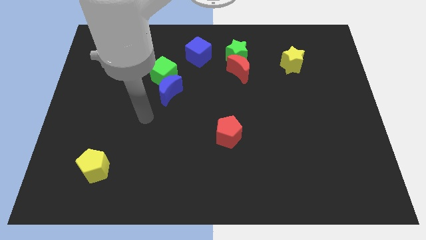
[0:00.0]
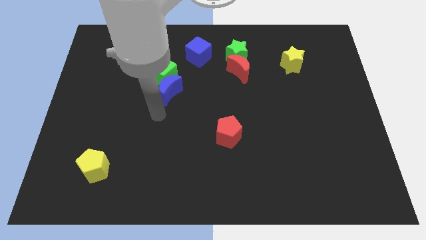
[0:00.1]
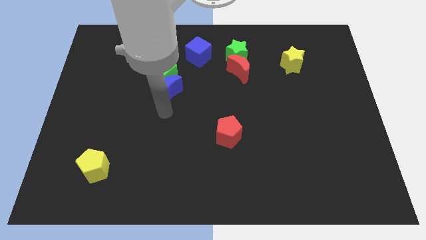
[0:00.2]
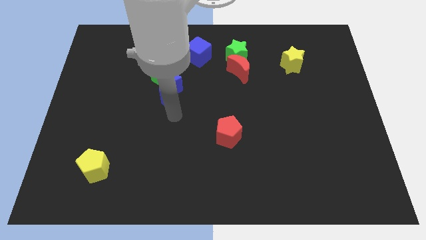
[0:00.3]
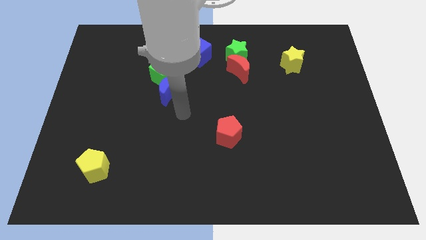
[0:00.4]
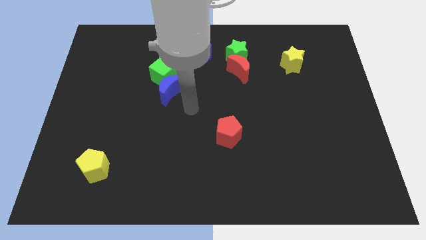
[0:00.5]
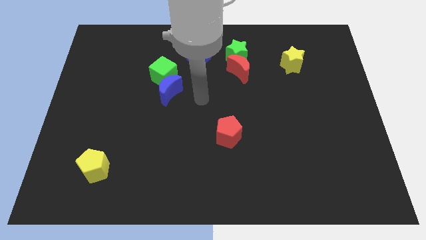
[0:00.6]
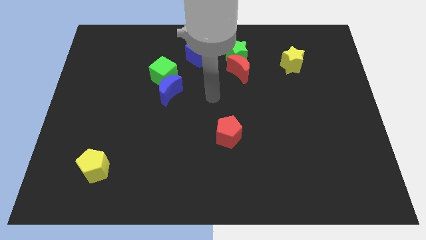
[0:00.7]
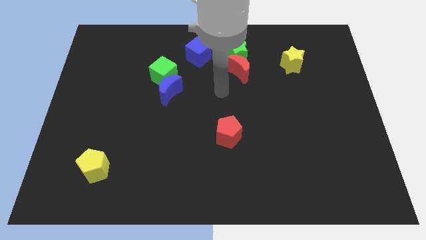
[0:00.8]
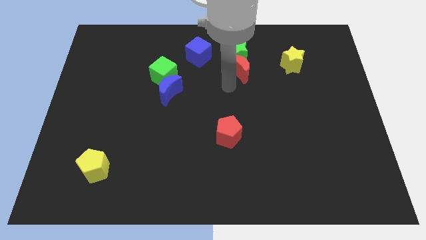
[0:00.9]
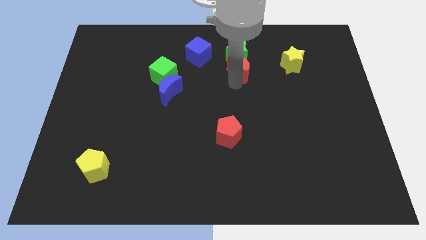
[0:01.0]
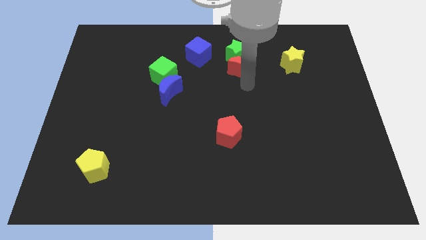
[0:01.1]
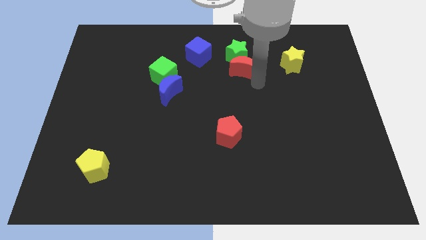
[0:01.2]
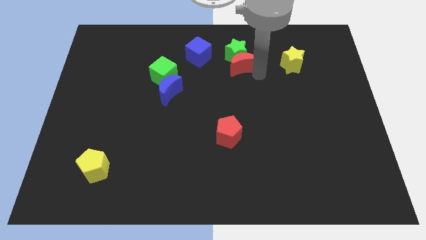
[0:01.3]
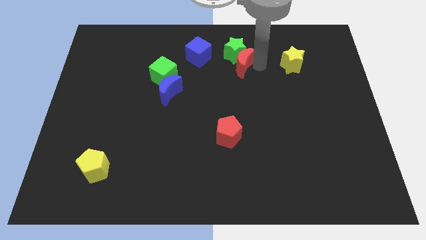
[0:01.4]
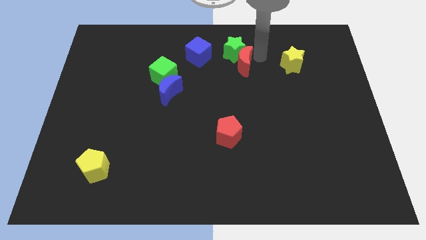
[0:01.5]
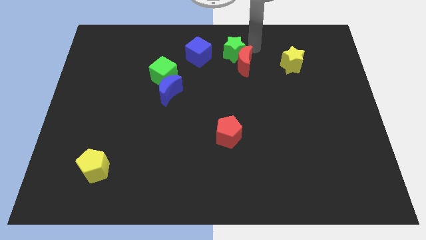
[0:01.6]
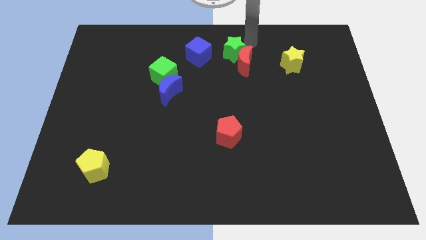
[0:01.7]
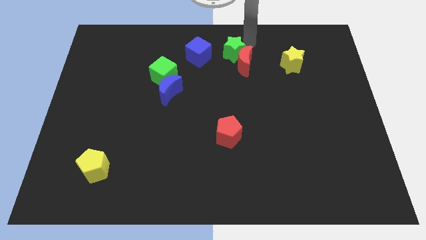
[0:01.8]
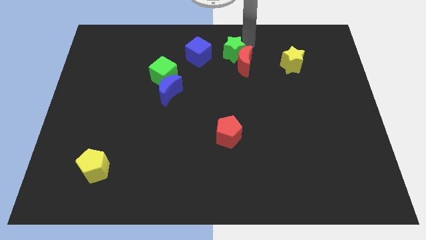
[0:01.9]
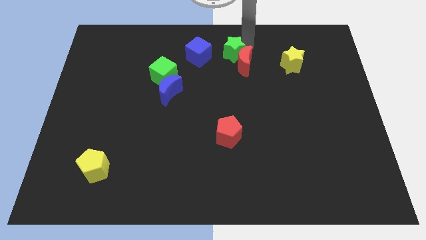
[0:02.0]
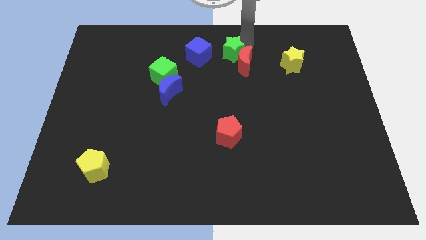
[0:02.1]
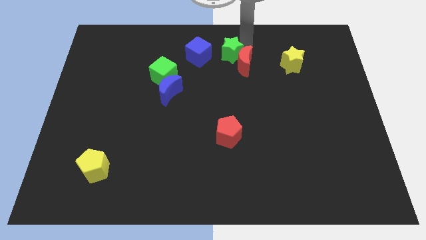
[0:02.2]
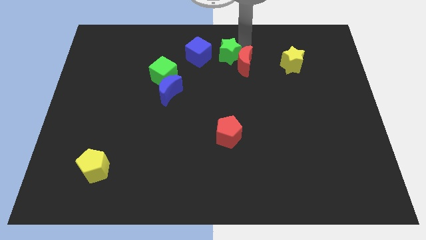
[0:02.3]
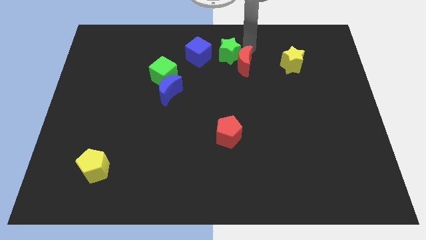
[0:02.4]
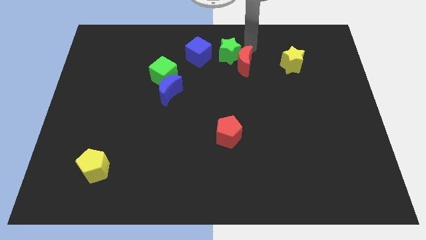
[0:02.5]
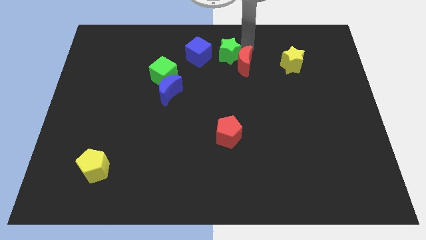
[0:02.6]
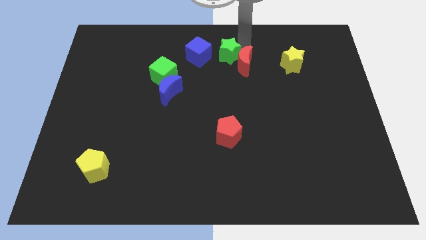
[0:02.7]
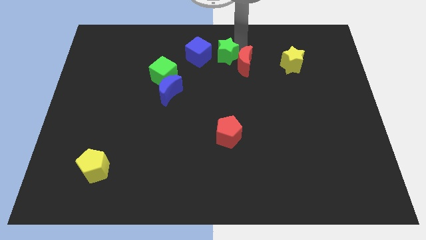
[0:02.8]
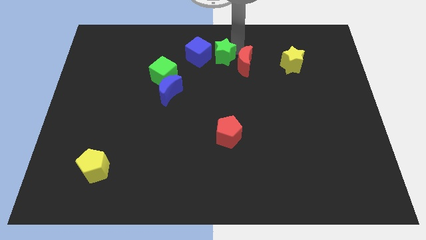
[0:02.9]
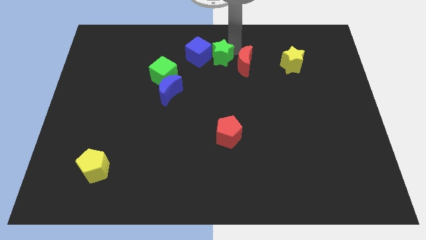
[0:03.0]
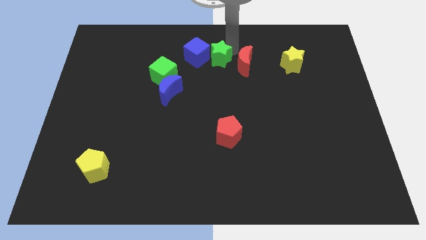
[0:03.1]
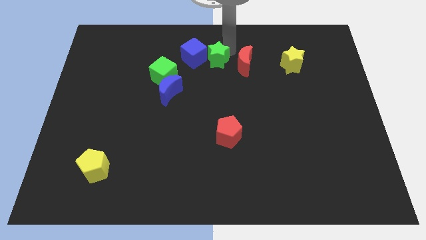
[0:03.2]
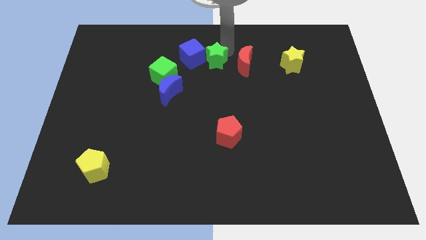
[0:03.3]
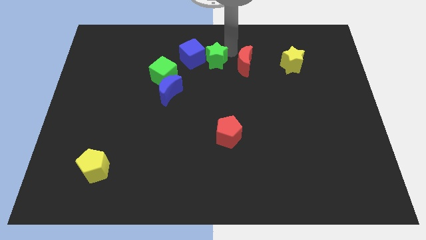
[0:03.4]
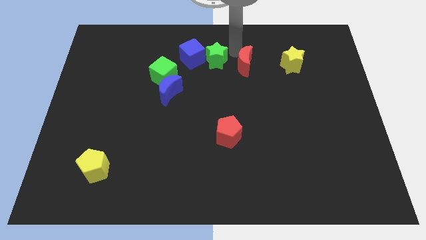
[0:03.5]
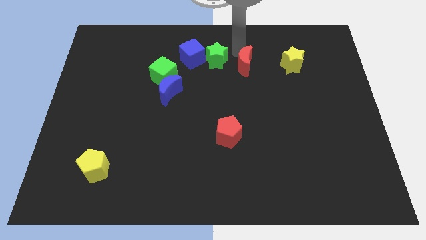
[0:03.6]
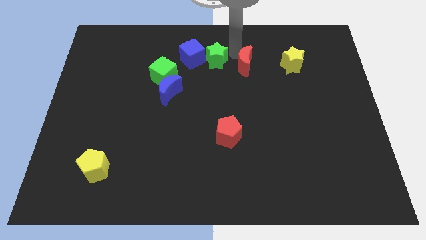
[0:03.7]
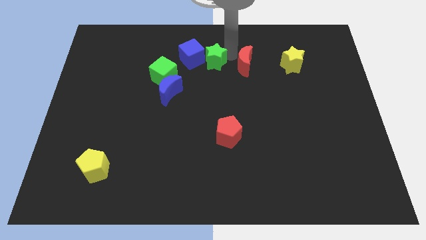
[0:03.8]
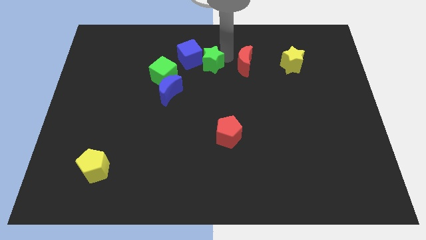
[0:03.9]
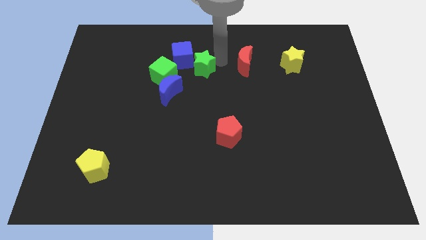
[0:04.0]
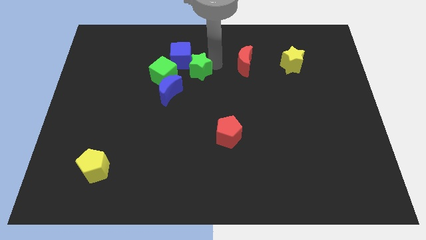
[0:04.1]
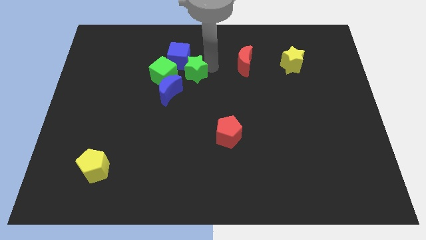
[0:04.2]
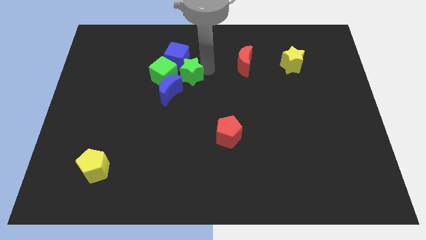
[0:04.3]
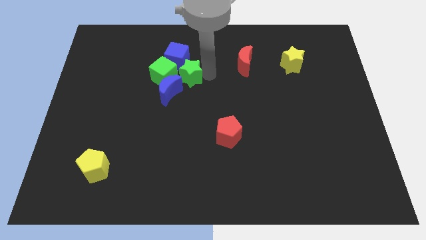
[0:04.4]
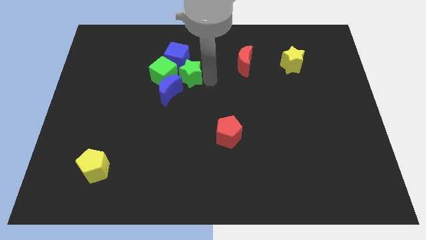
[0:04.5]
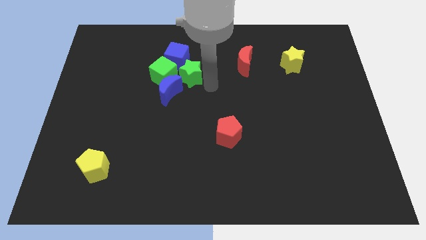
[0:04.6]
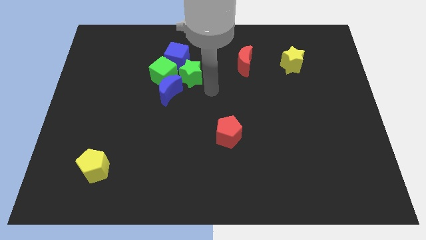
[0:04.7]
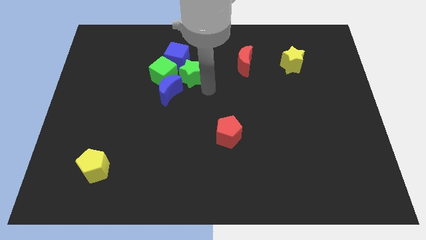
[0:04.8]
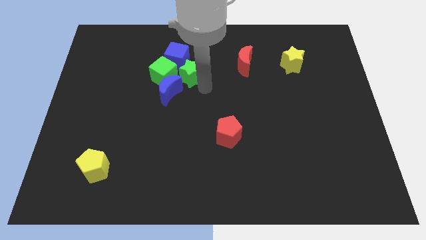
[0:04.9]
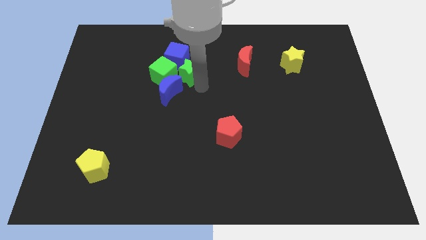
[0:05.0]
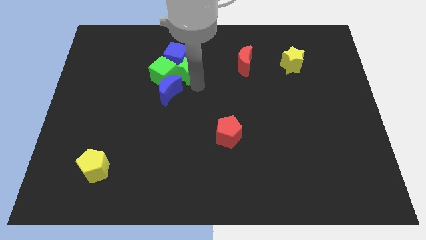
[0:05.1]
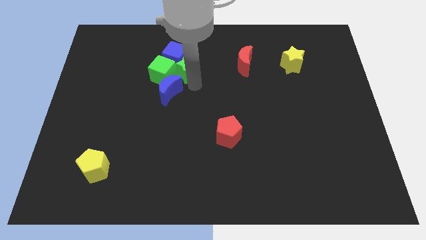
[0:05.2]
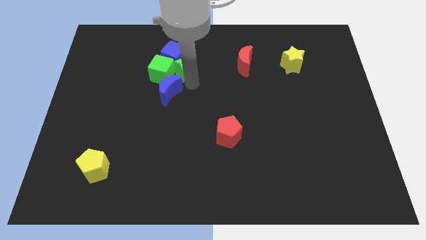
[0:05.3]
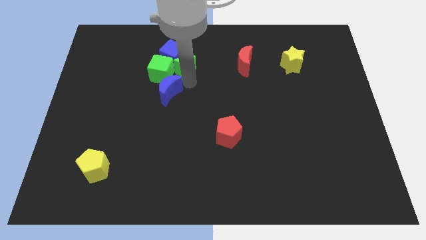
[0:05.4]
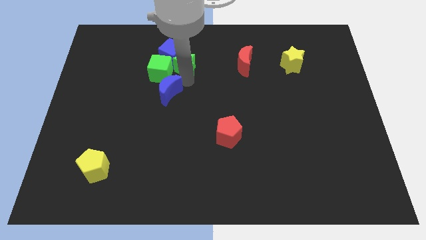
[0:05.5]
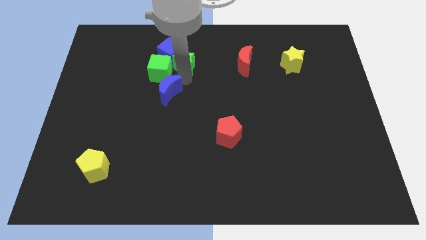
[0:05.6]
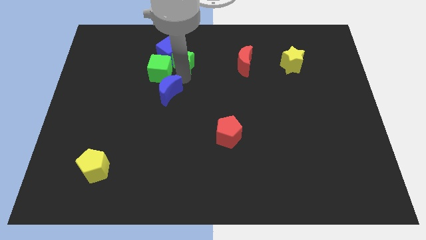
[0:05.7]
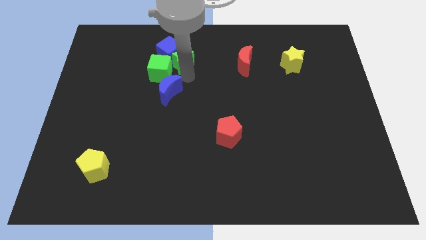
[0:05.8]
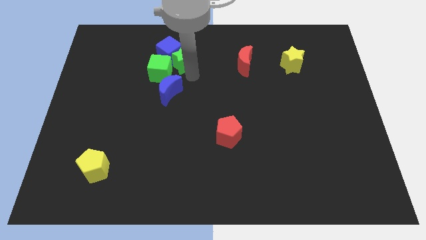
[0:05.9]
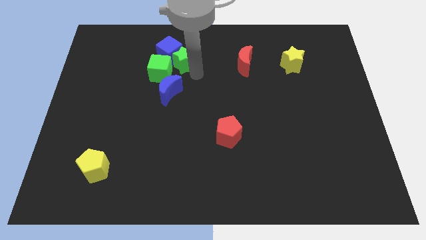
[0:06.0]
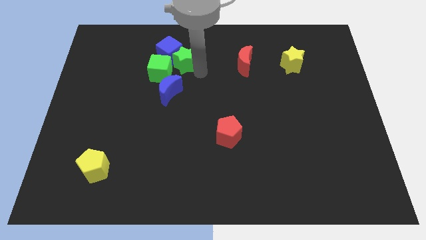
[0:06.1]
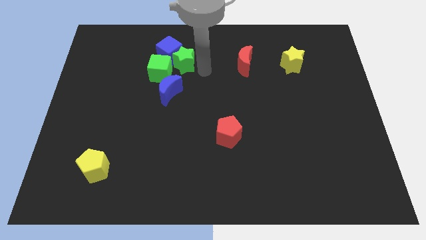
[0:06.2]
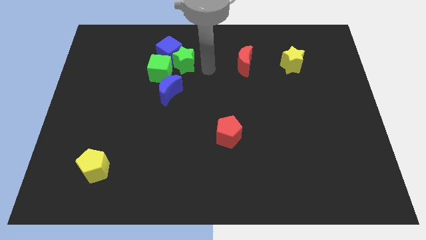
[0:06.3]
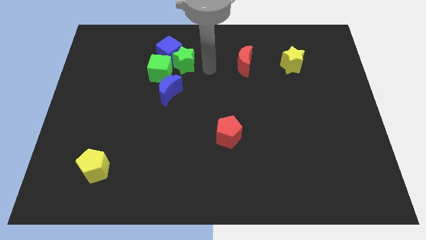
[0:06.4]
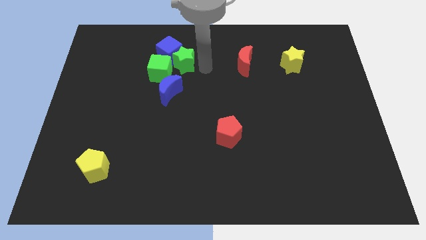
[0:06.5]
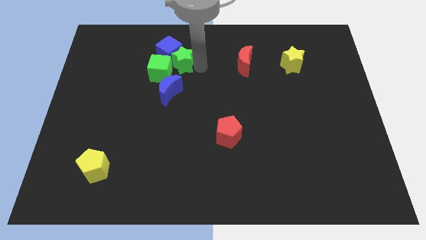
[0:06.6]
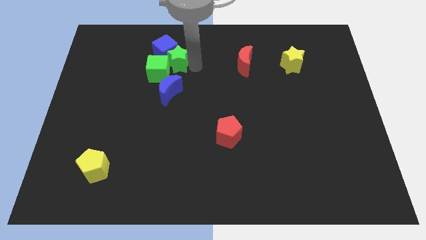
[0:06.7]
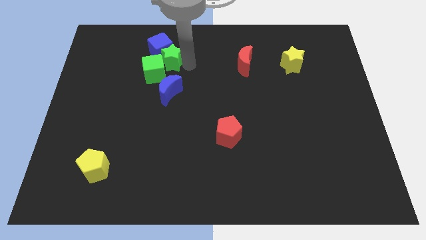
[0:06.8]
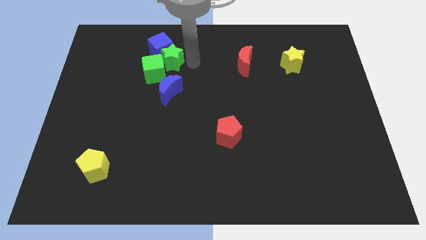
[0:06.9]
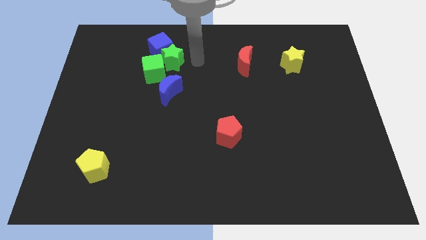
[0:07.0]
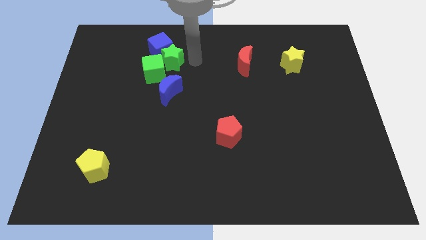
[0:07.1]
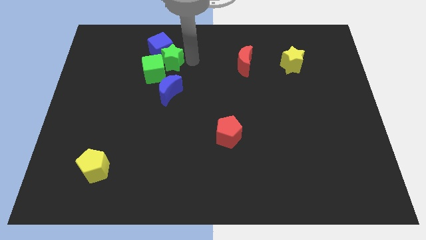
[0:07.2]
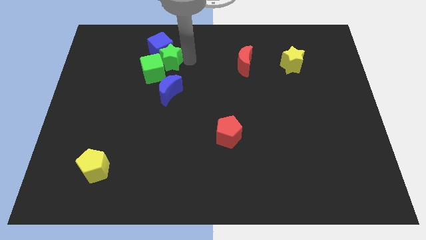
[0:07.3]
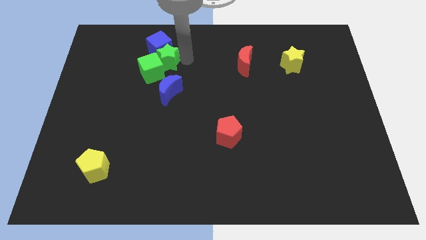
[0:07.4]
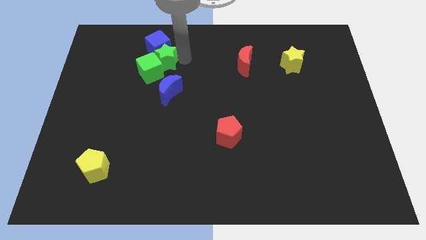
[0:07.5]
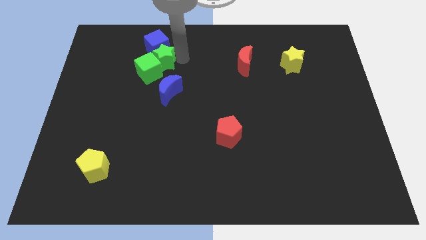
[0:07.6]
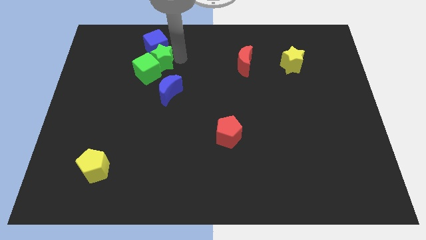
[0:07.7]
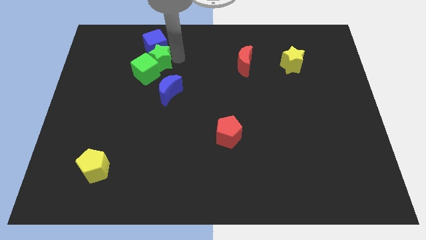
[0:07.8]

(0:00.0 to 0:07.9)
push the green star to the left

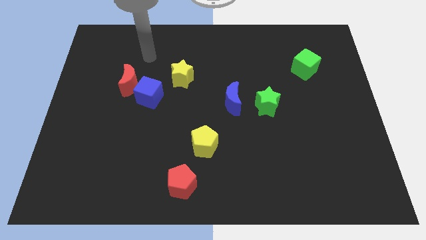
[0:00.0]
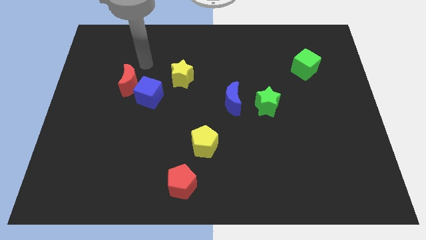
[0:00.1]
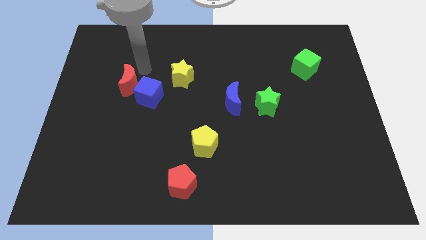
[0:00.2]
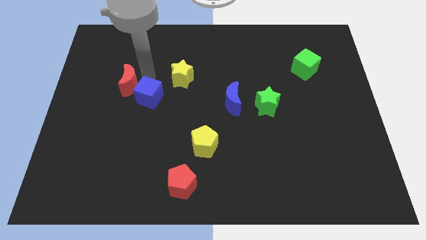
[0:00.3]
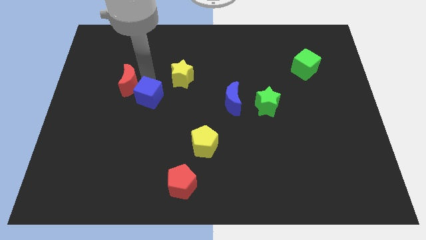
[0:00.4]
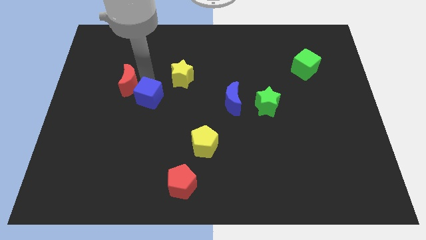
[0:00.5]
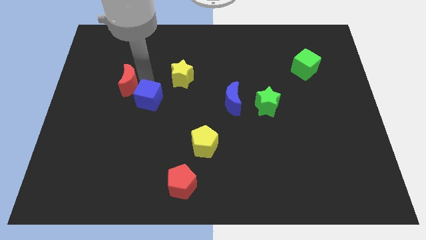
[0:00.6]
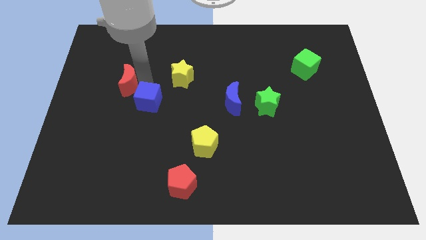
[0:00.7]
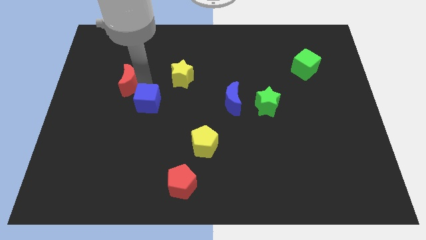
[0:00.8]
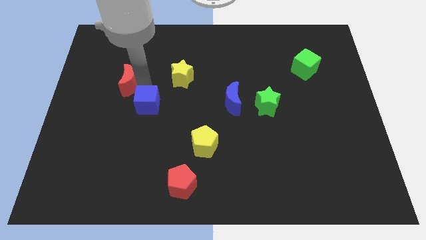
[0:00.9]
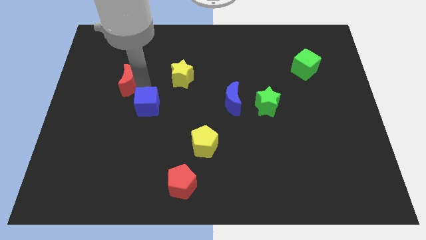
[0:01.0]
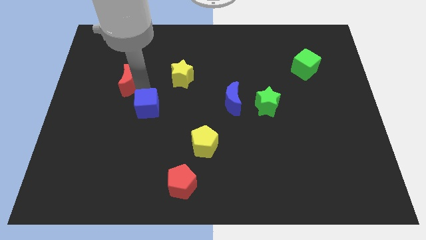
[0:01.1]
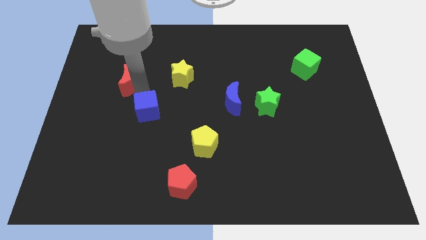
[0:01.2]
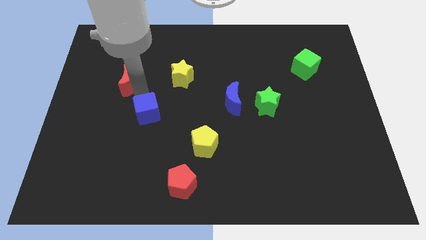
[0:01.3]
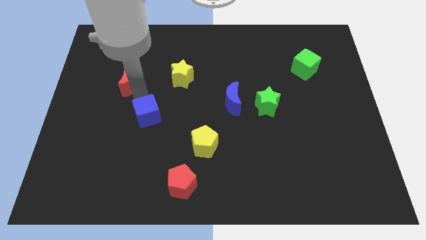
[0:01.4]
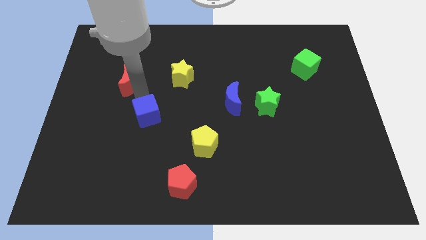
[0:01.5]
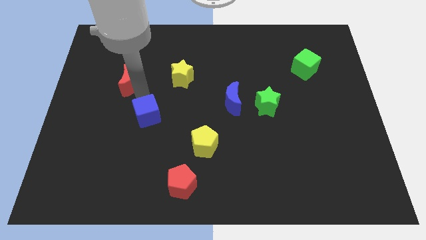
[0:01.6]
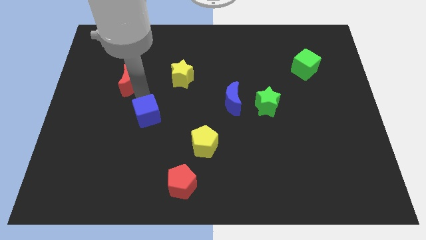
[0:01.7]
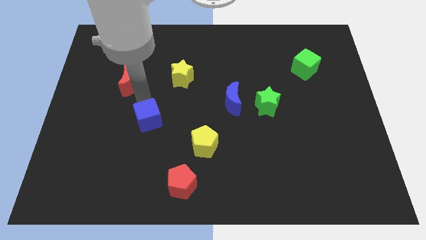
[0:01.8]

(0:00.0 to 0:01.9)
move the blue cube down a bit
